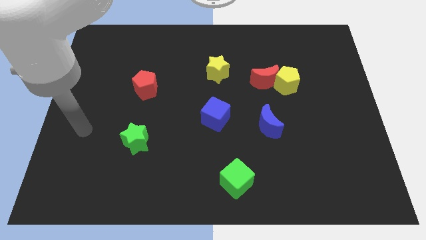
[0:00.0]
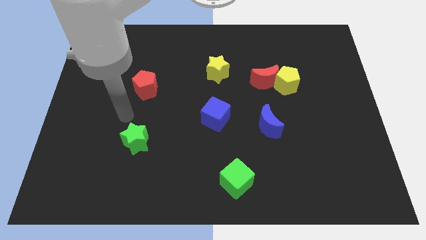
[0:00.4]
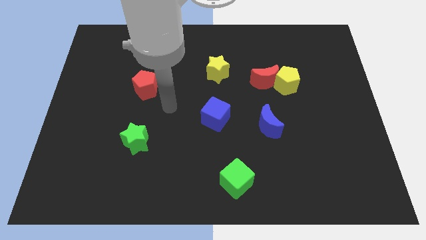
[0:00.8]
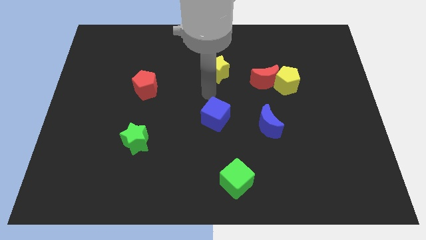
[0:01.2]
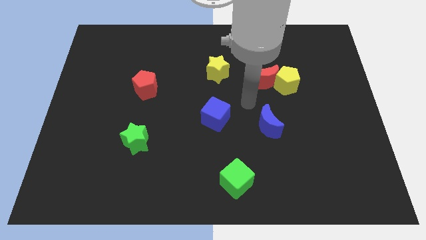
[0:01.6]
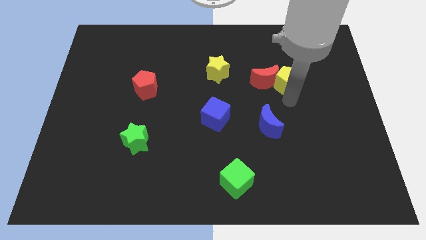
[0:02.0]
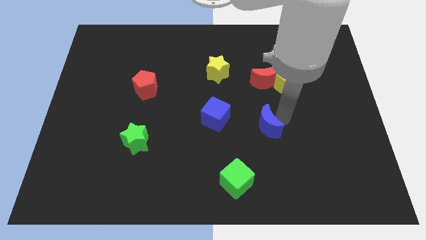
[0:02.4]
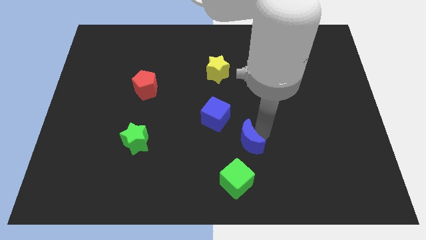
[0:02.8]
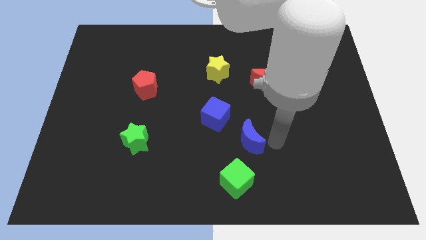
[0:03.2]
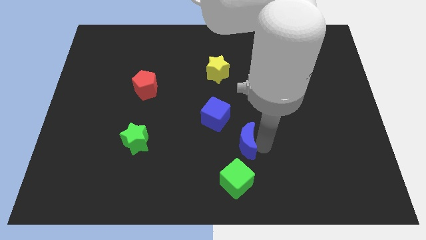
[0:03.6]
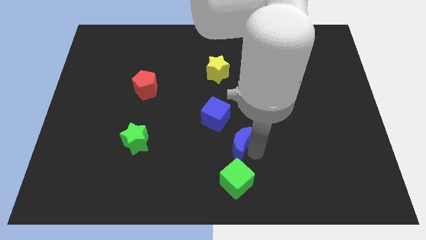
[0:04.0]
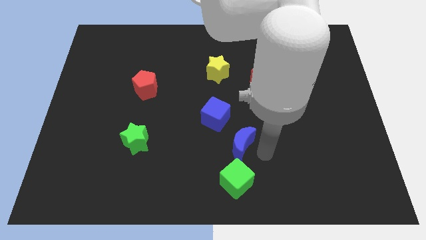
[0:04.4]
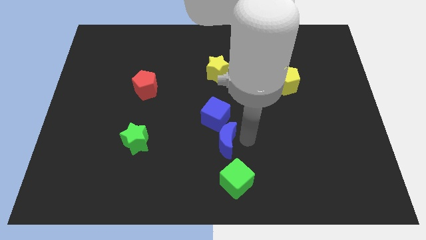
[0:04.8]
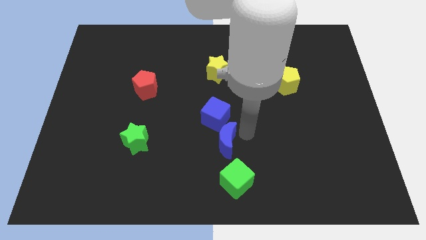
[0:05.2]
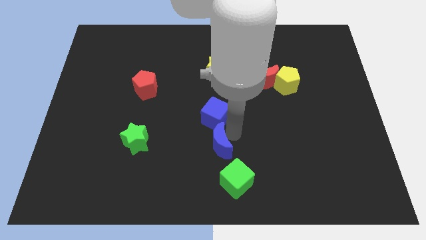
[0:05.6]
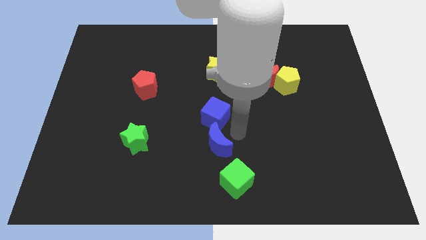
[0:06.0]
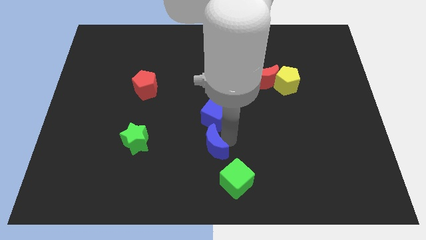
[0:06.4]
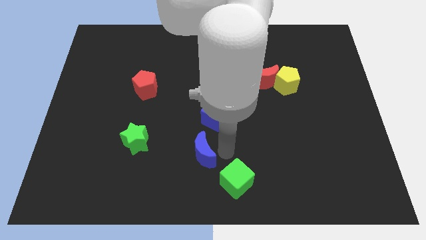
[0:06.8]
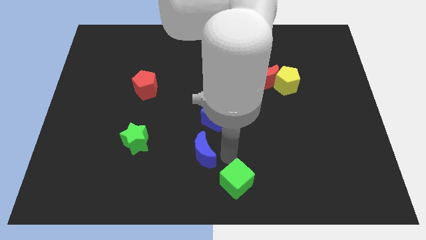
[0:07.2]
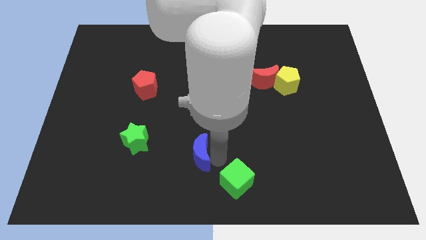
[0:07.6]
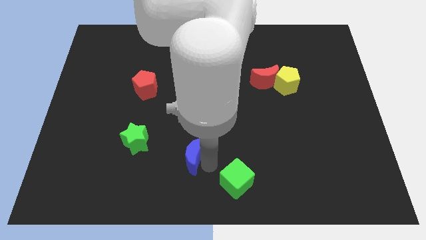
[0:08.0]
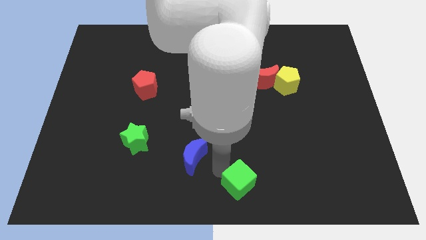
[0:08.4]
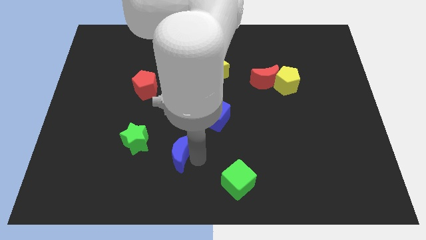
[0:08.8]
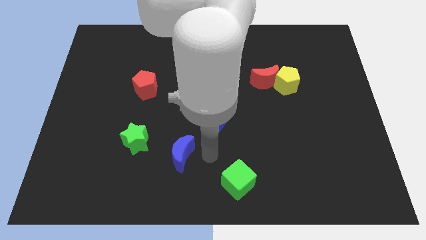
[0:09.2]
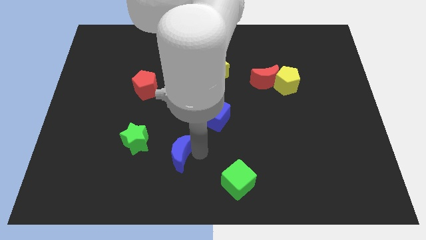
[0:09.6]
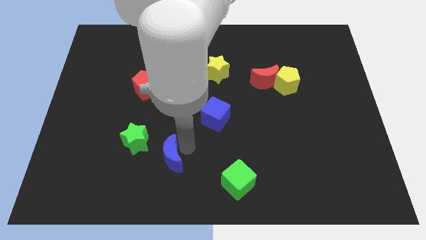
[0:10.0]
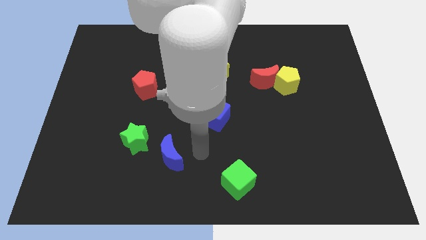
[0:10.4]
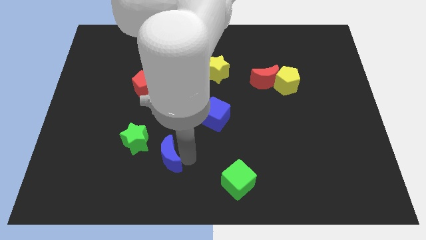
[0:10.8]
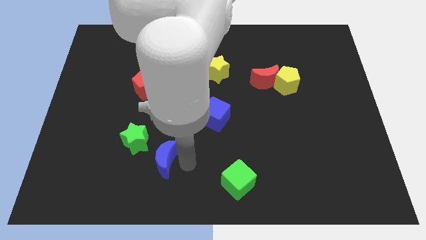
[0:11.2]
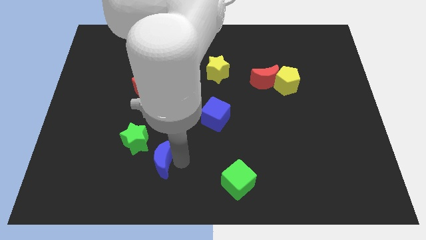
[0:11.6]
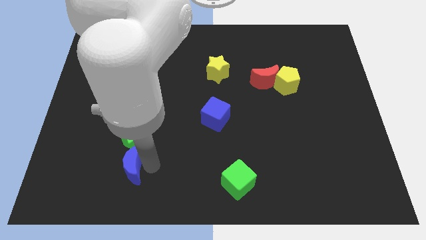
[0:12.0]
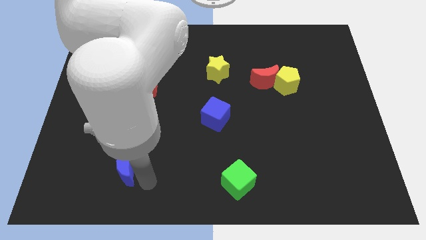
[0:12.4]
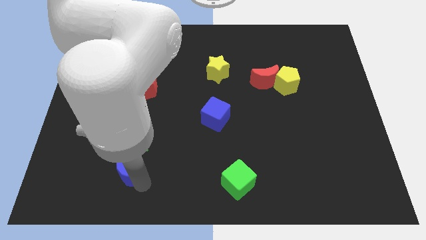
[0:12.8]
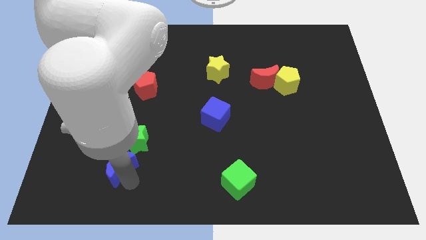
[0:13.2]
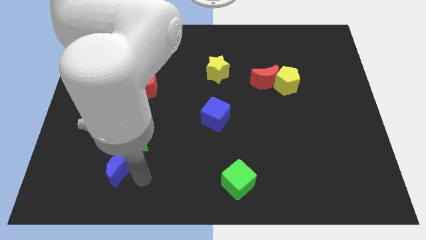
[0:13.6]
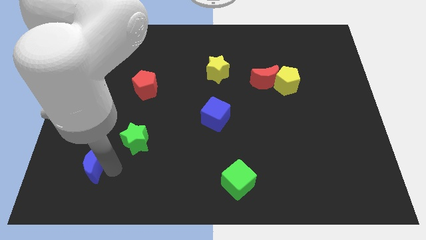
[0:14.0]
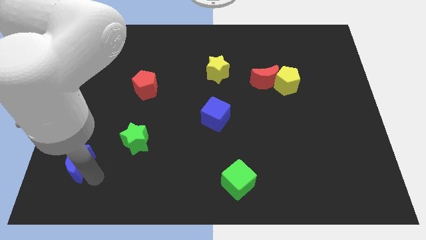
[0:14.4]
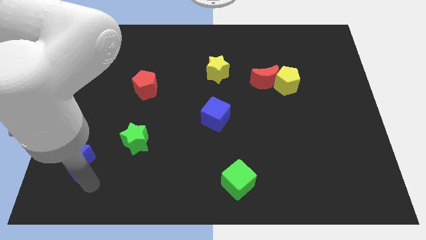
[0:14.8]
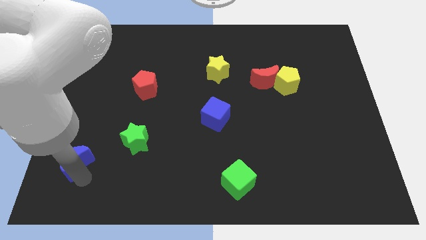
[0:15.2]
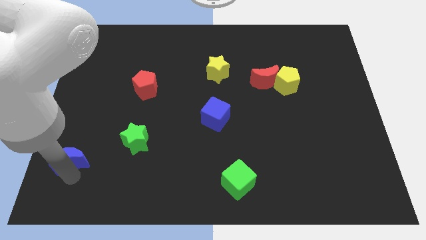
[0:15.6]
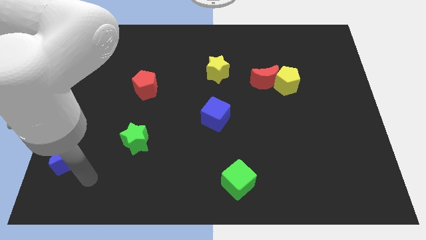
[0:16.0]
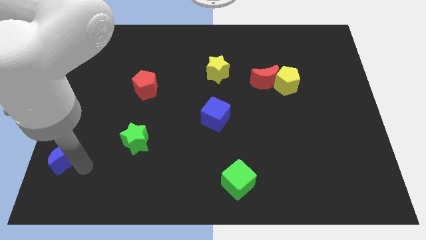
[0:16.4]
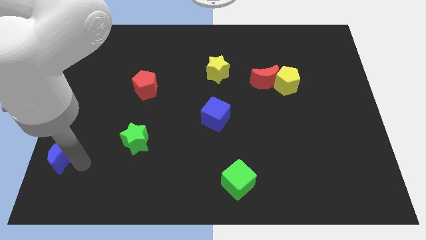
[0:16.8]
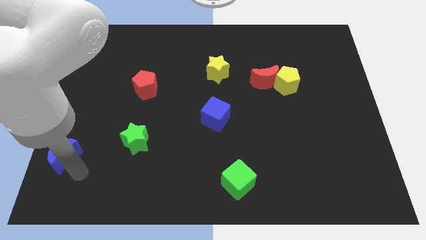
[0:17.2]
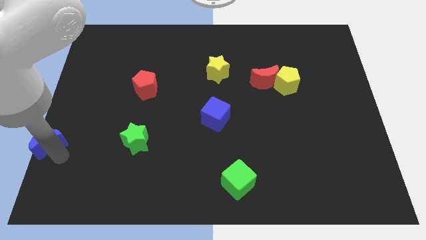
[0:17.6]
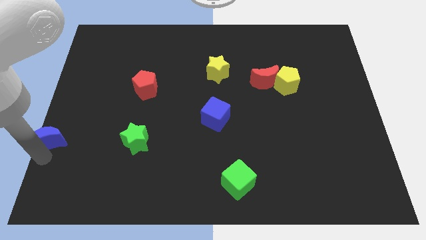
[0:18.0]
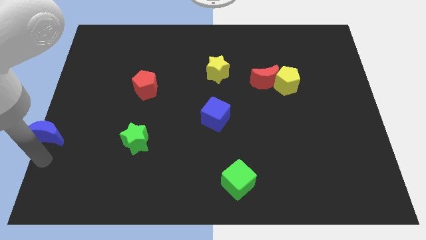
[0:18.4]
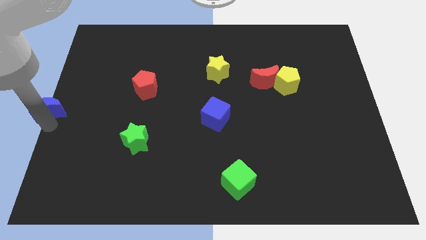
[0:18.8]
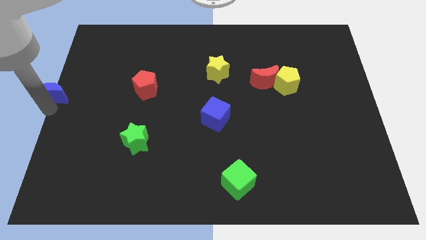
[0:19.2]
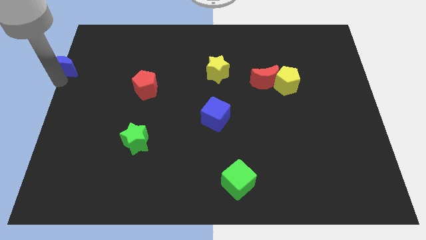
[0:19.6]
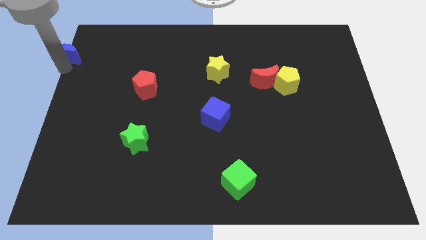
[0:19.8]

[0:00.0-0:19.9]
put the blue moon to the top left

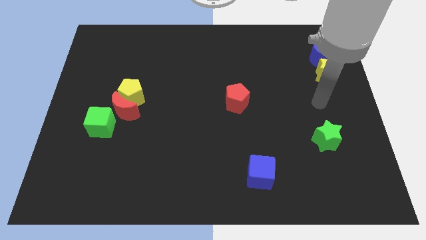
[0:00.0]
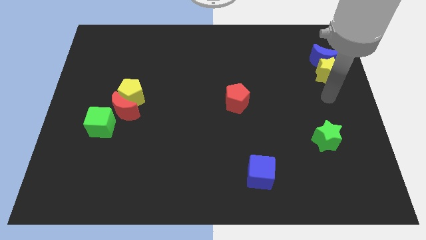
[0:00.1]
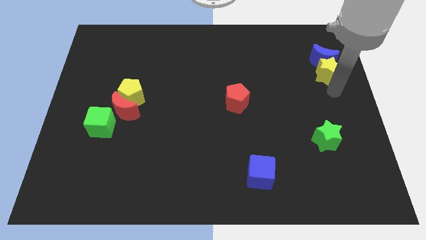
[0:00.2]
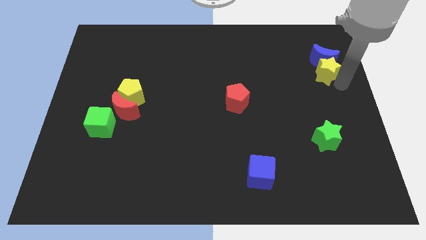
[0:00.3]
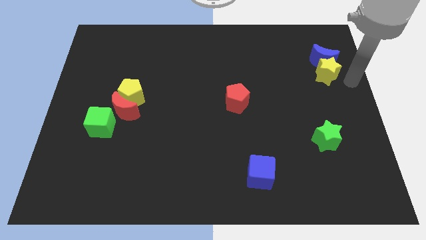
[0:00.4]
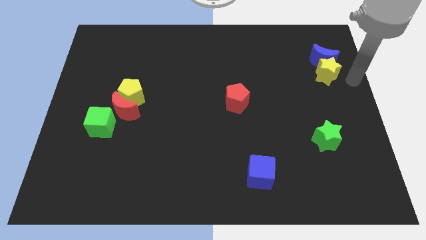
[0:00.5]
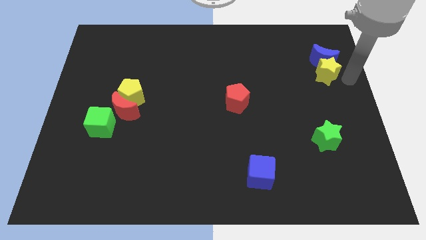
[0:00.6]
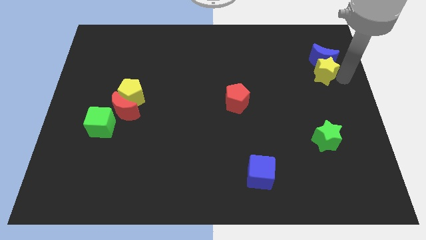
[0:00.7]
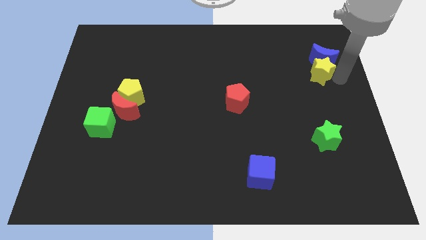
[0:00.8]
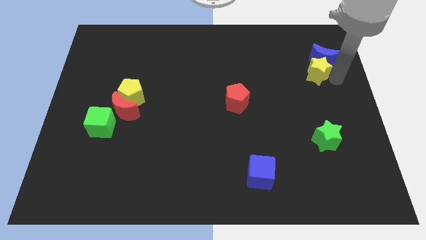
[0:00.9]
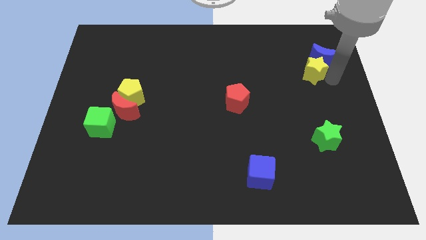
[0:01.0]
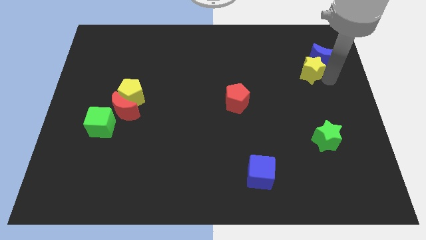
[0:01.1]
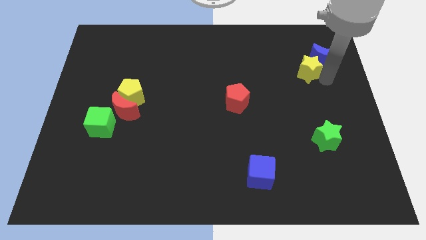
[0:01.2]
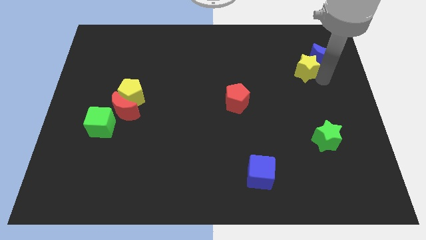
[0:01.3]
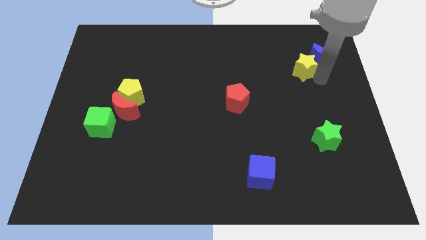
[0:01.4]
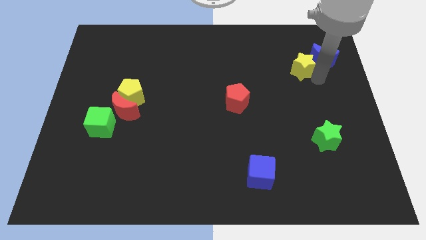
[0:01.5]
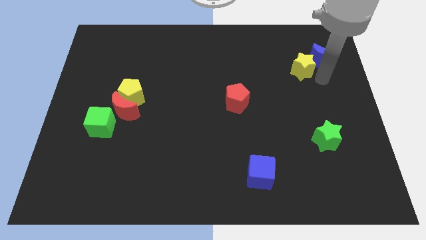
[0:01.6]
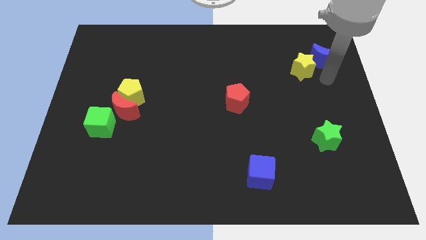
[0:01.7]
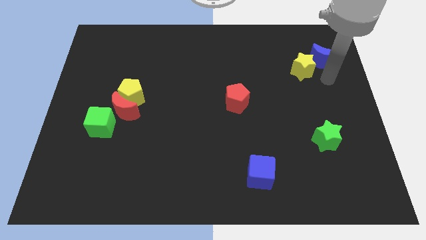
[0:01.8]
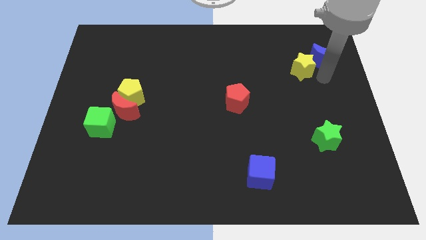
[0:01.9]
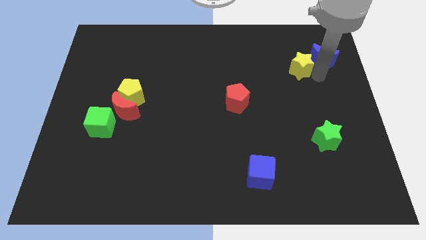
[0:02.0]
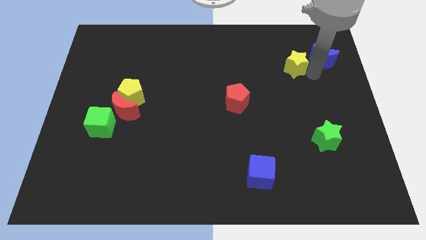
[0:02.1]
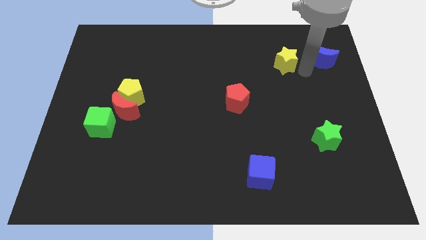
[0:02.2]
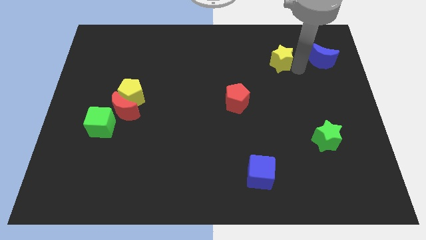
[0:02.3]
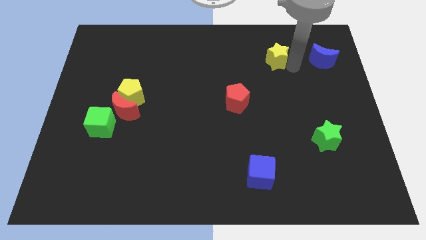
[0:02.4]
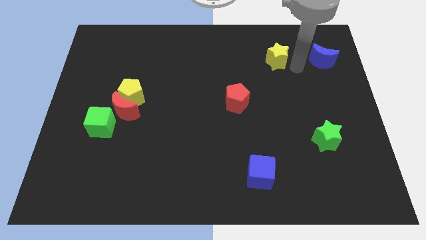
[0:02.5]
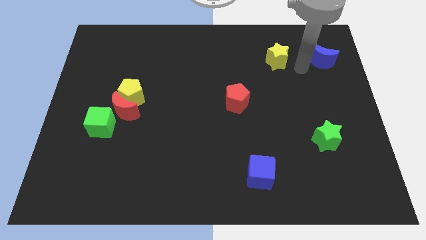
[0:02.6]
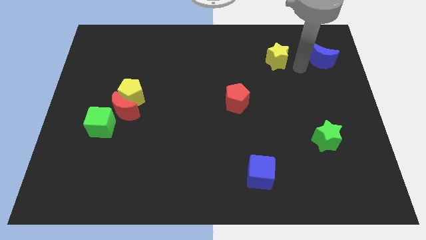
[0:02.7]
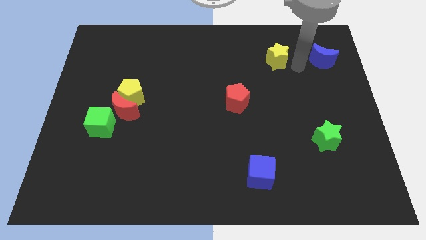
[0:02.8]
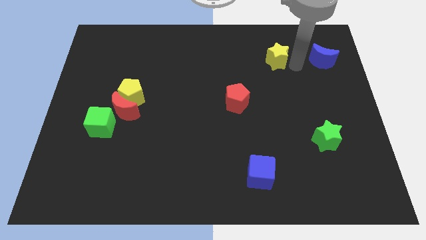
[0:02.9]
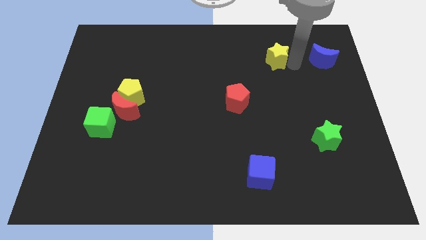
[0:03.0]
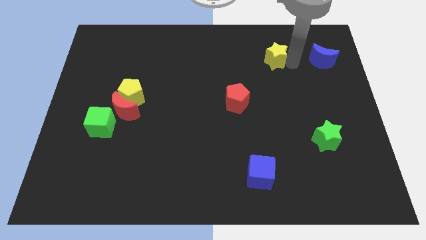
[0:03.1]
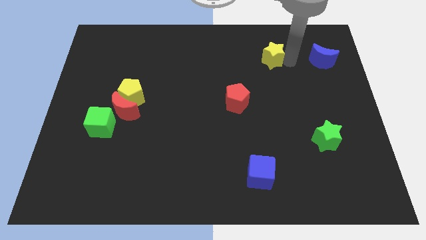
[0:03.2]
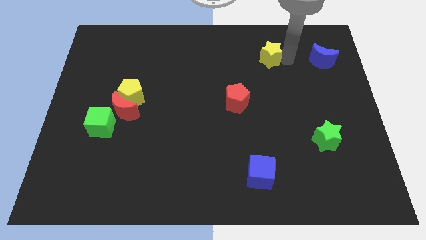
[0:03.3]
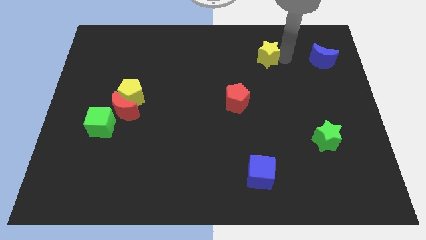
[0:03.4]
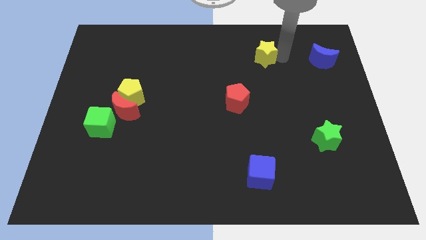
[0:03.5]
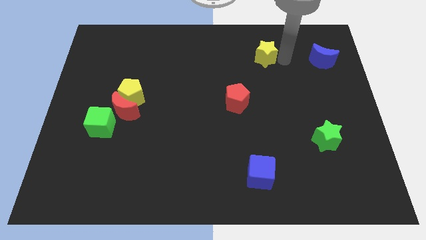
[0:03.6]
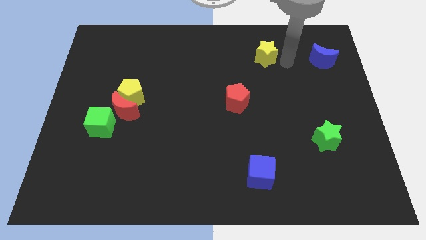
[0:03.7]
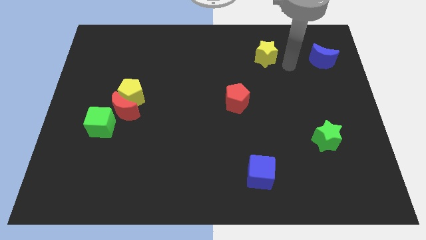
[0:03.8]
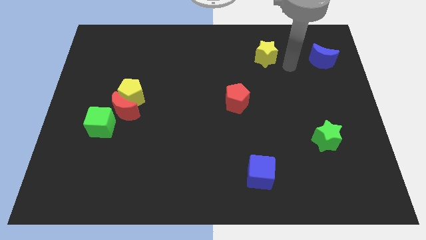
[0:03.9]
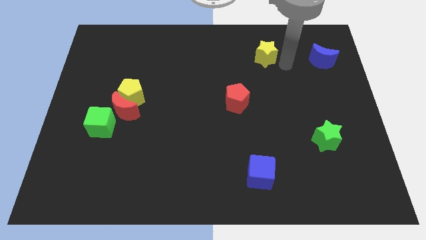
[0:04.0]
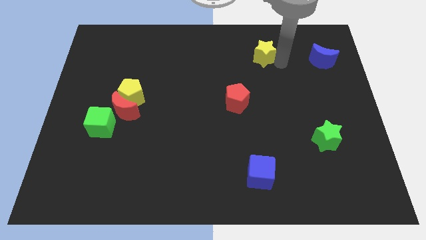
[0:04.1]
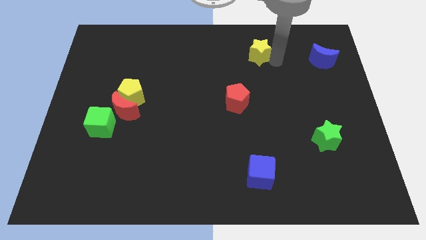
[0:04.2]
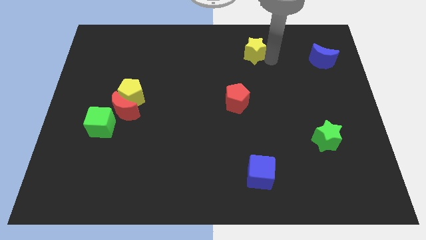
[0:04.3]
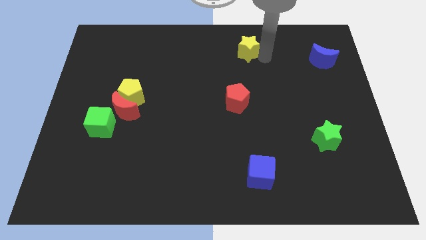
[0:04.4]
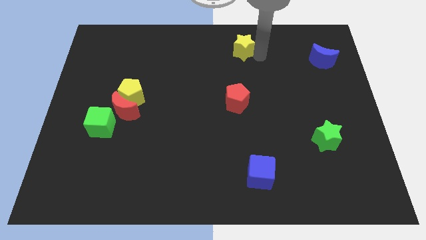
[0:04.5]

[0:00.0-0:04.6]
slide the yellow star to the towards your base
